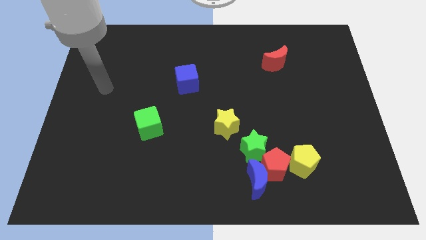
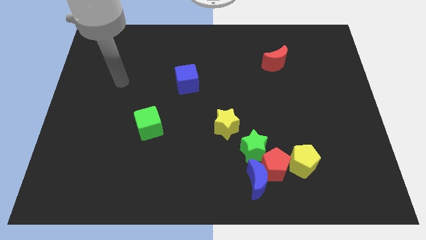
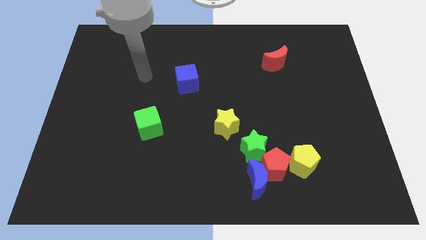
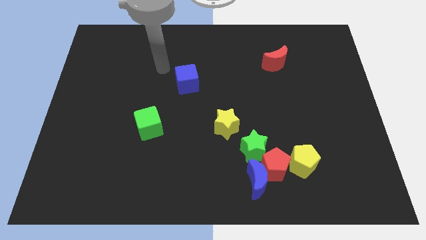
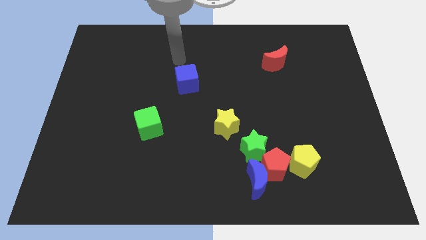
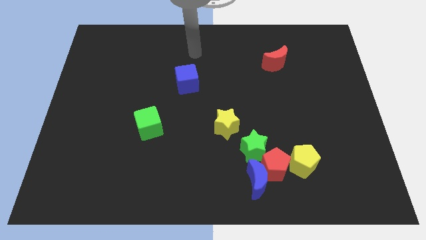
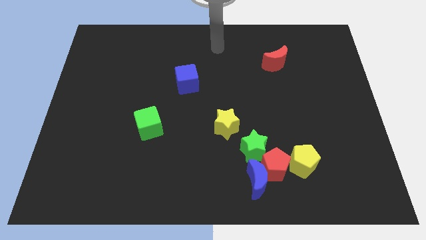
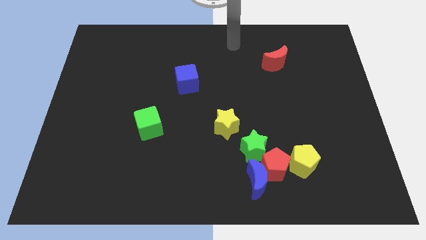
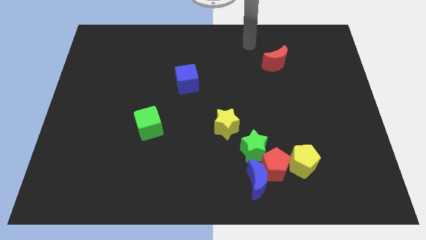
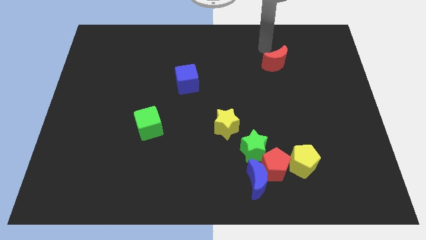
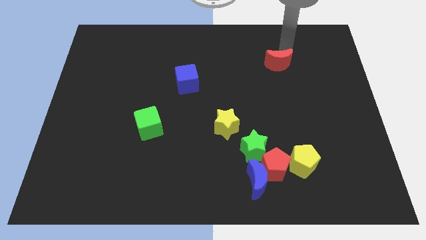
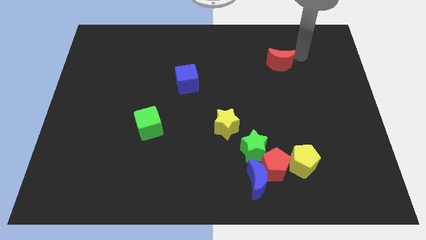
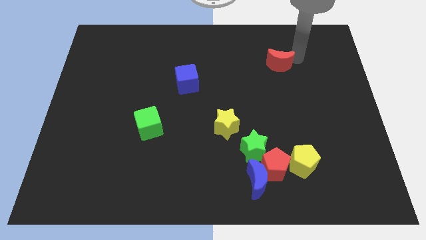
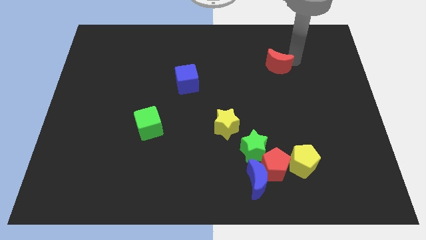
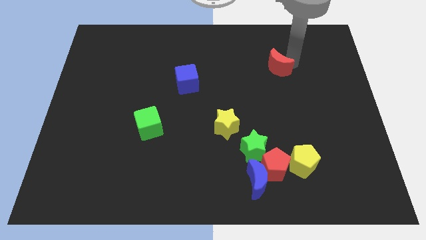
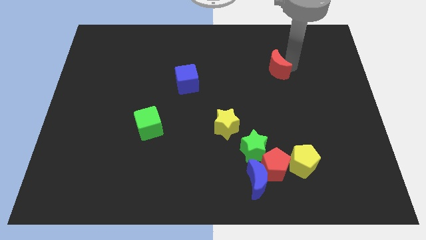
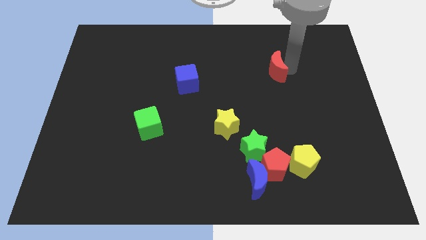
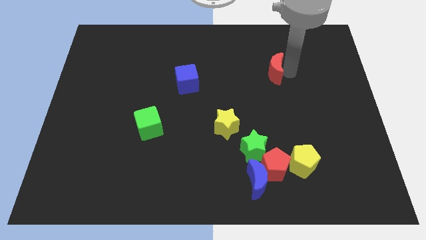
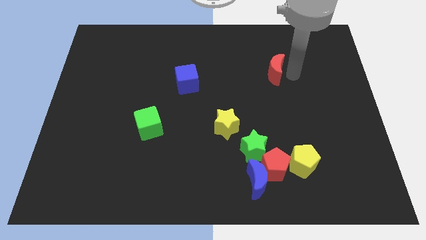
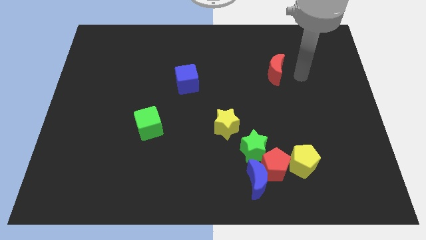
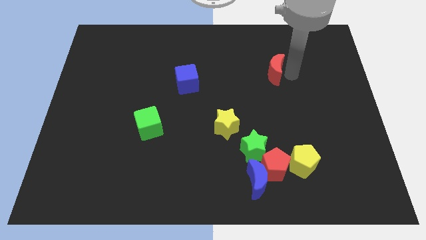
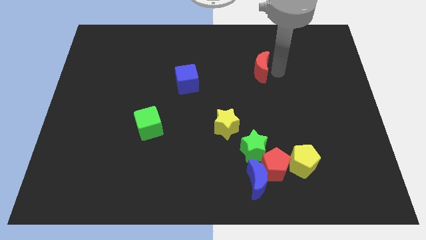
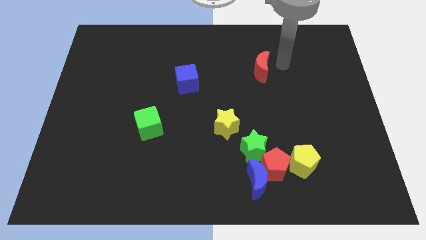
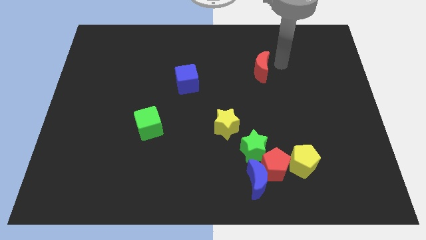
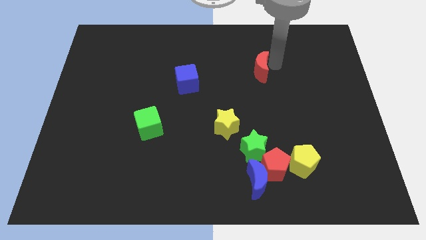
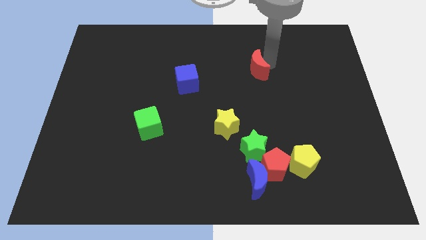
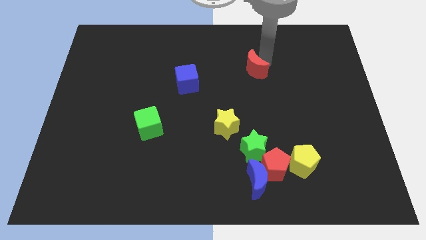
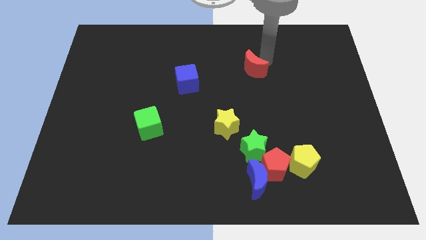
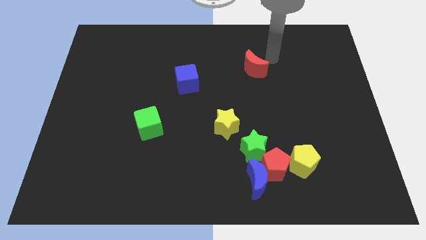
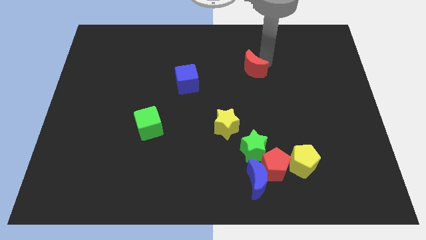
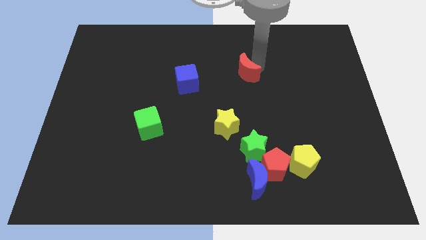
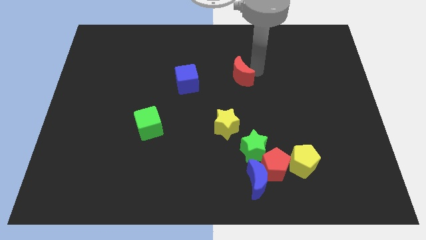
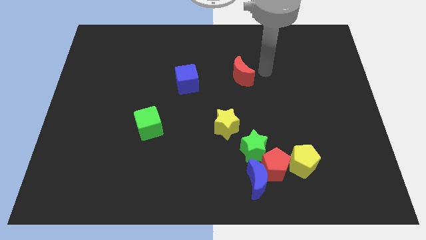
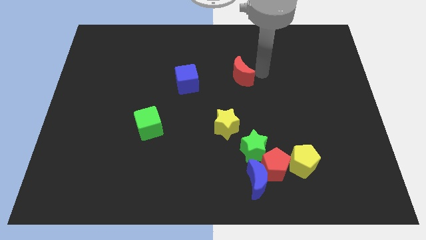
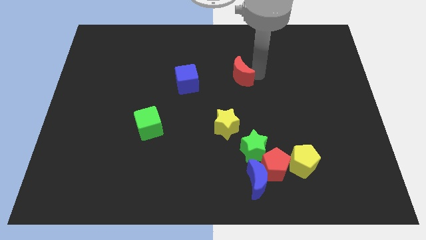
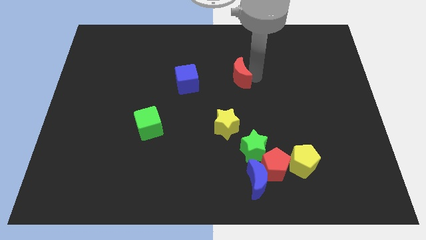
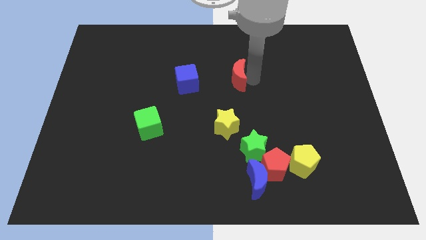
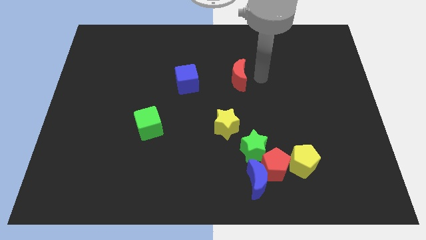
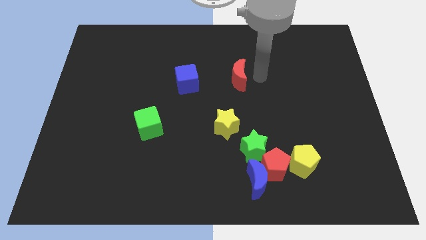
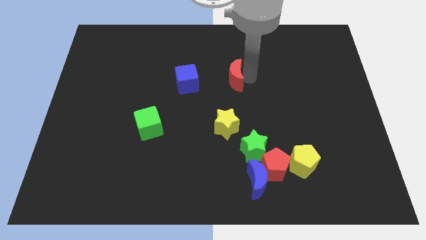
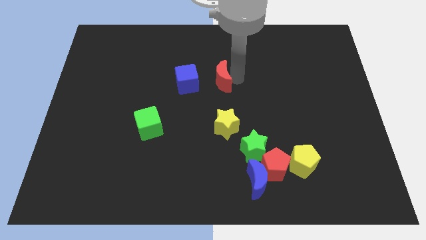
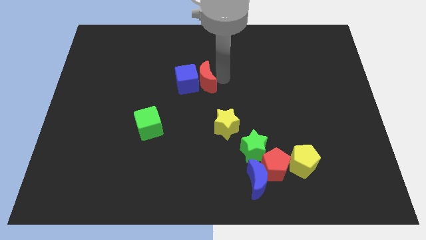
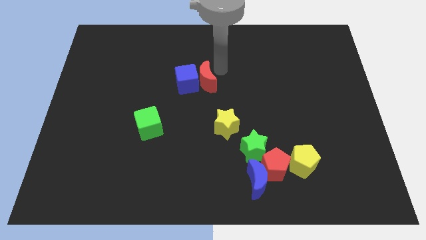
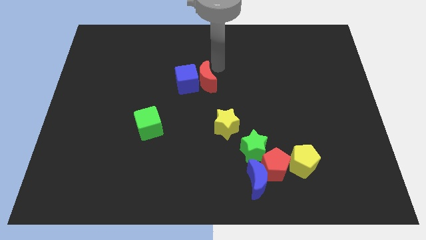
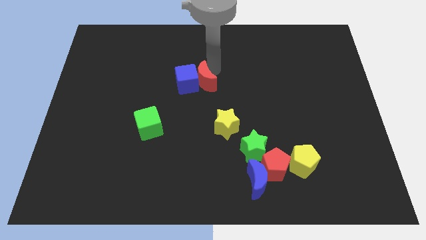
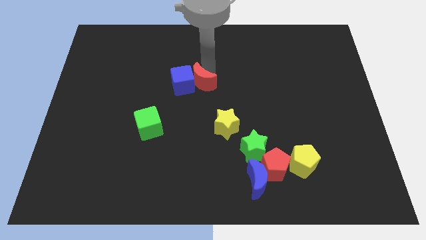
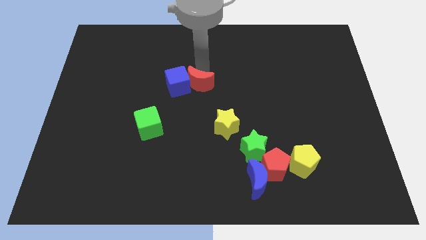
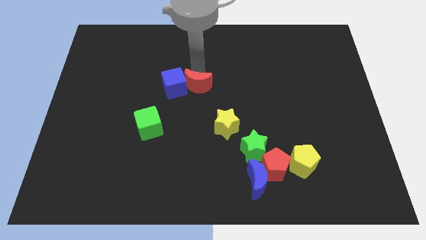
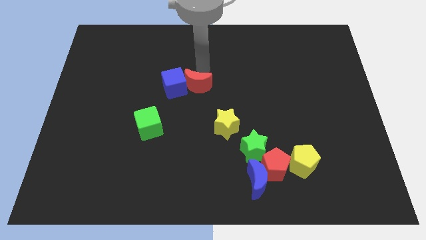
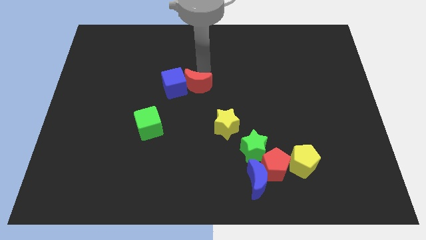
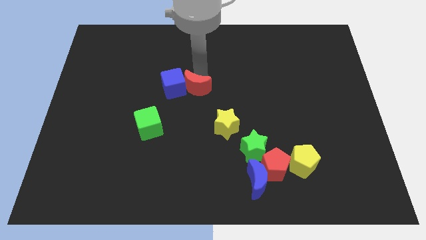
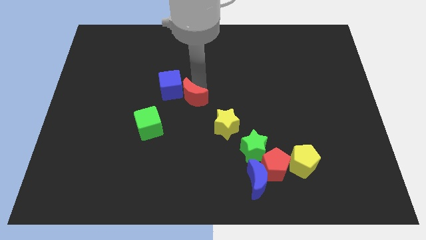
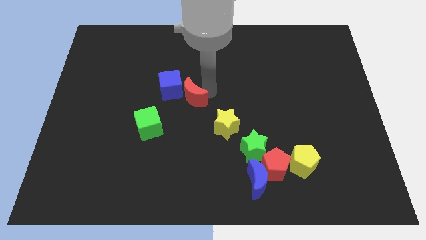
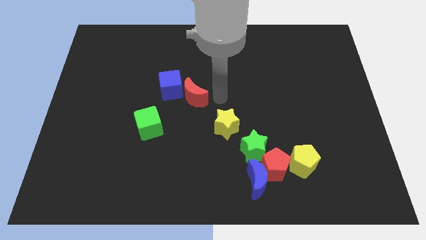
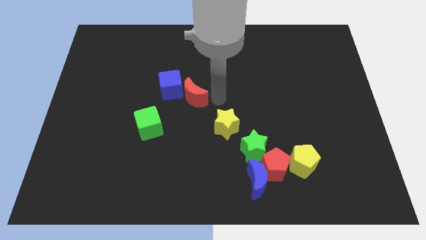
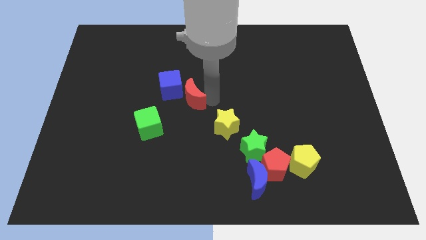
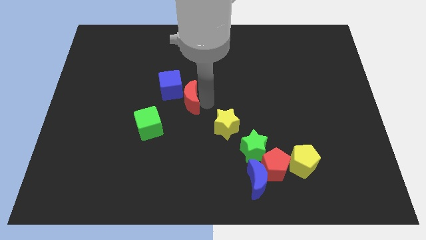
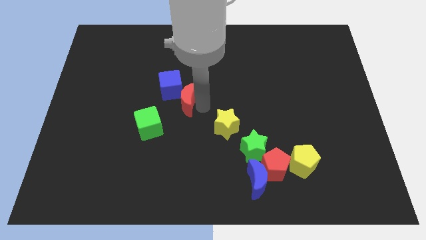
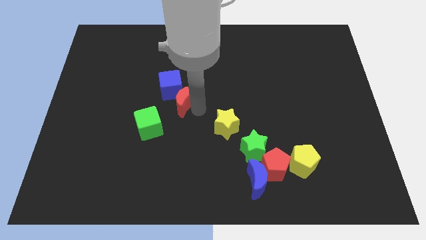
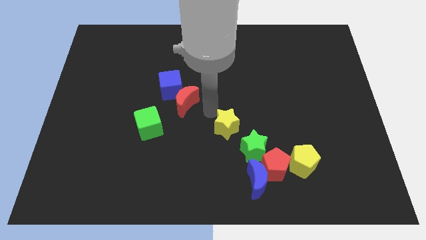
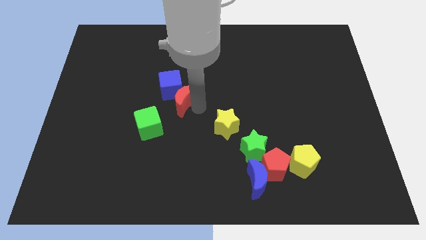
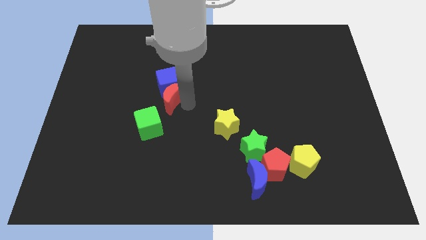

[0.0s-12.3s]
put the red moon to the top side of the green cube

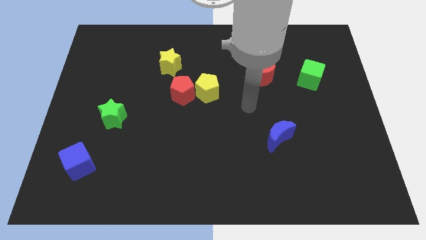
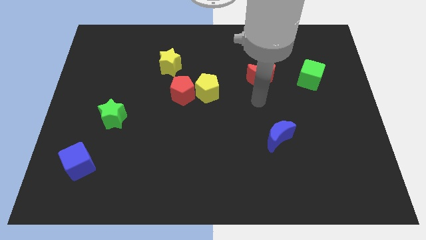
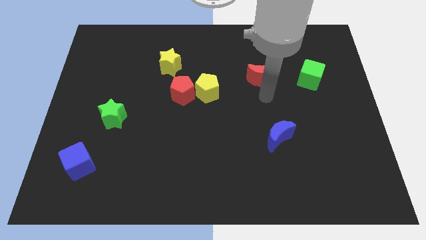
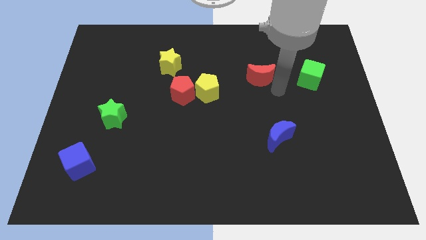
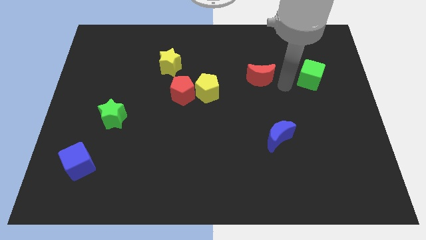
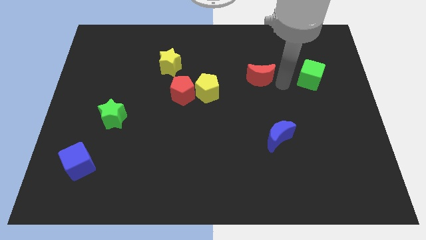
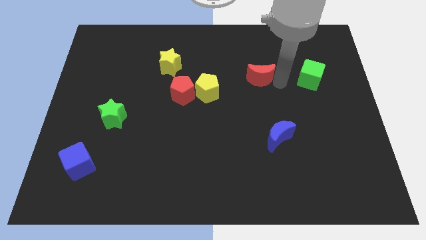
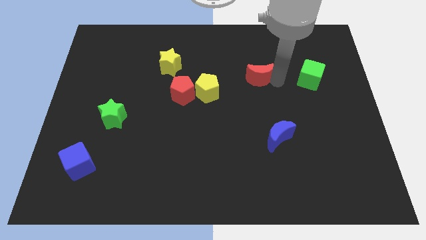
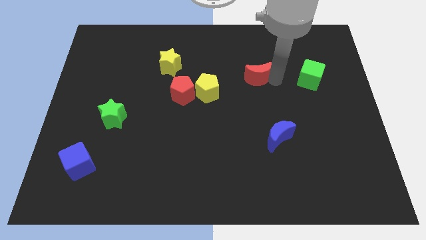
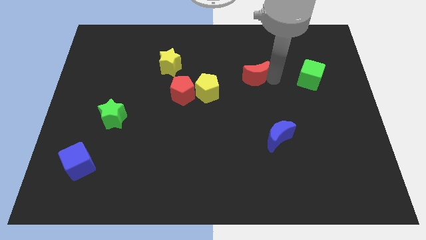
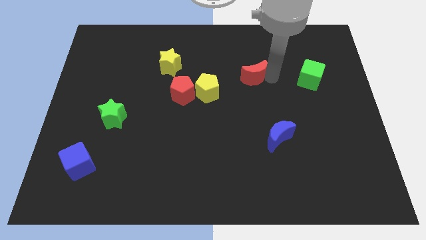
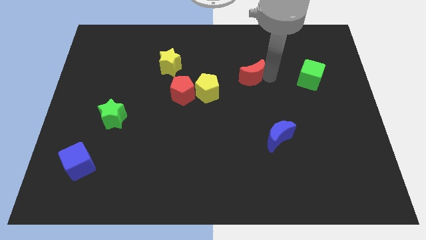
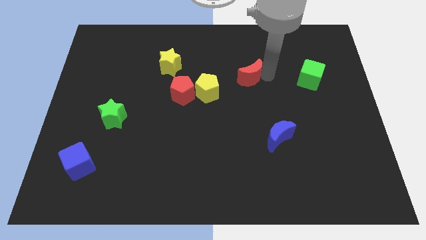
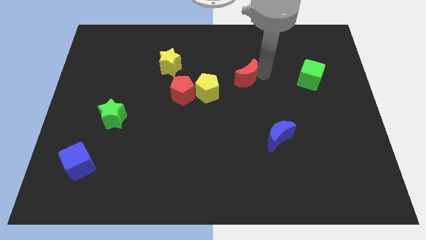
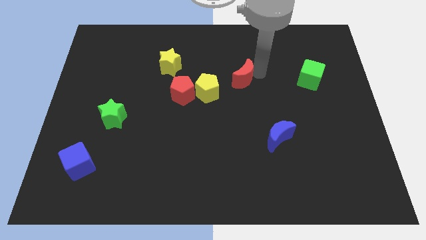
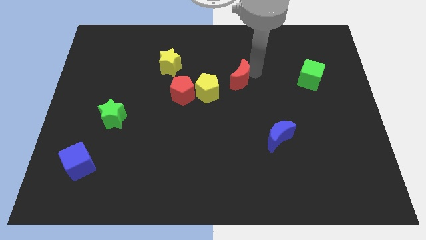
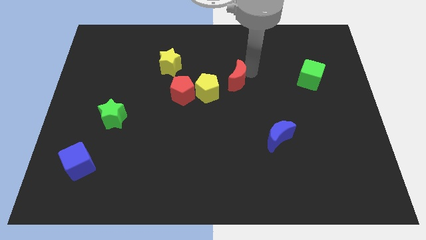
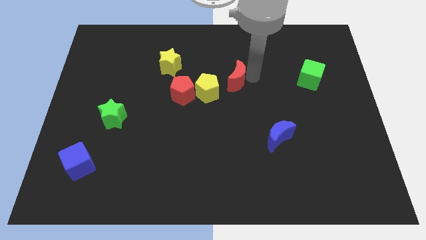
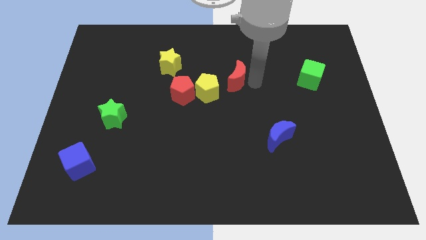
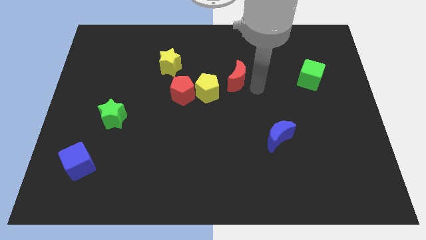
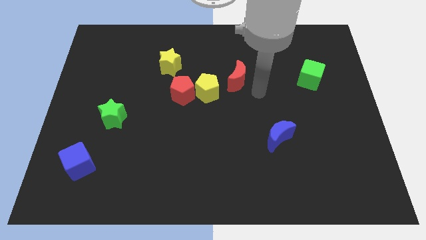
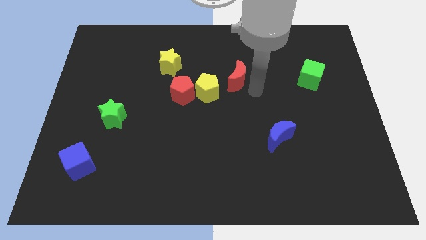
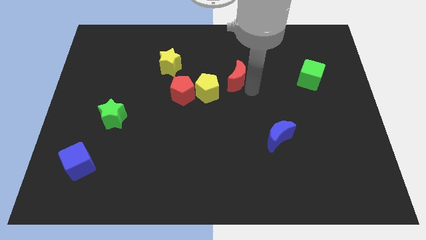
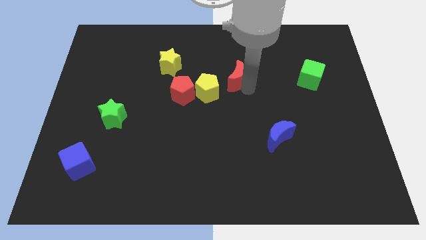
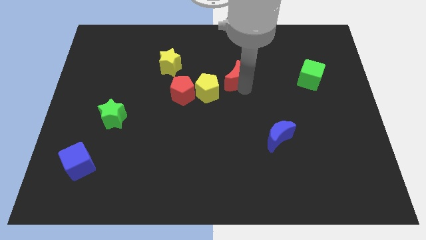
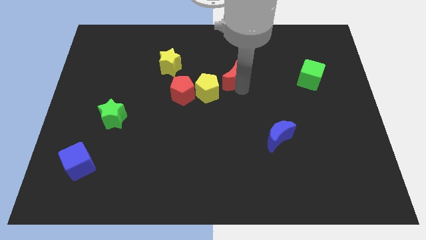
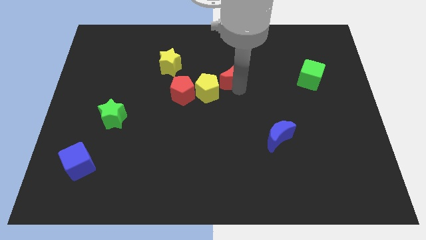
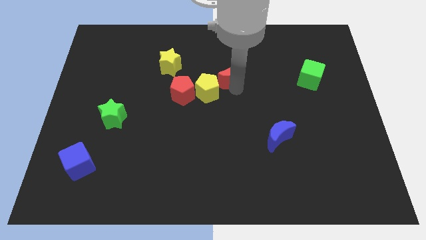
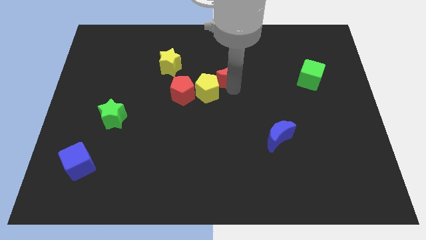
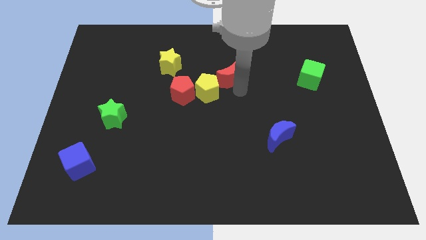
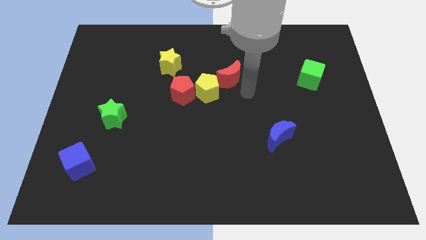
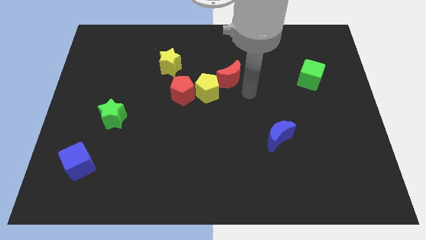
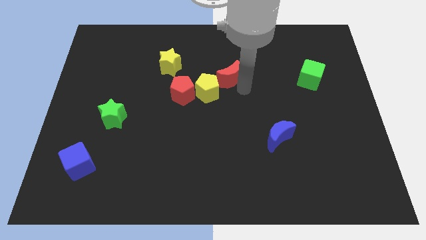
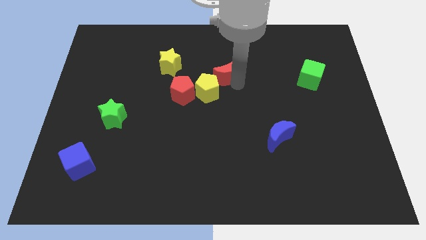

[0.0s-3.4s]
push the red moon to the top of the yellow pentagon
